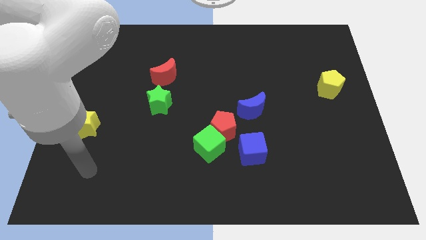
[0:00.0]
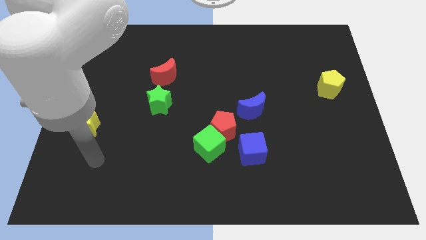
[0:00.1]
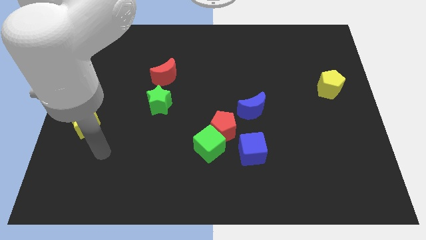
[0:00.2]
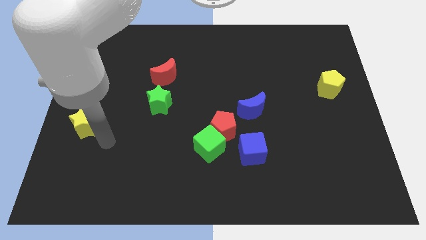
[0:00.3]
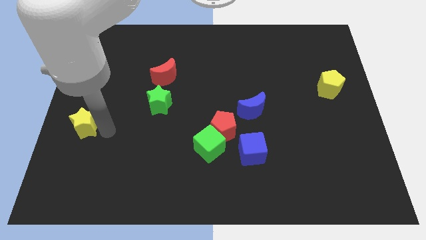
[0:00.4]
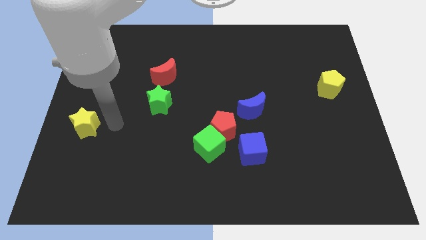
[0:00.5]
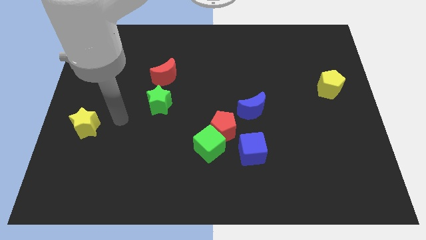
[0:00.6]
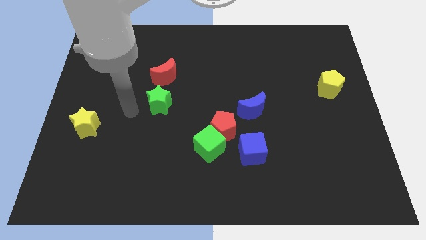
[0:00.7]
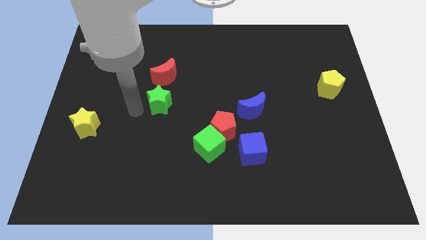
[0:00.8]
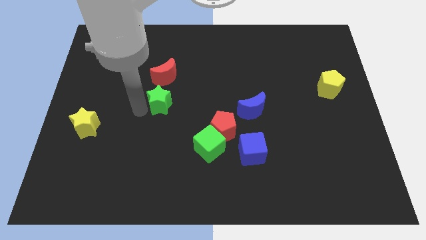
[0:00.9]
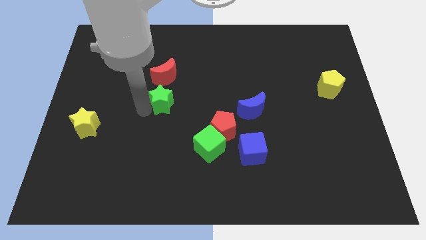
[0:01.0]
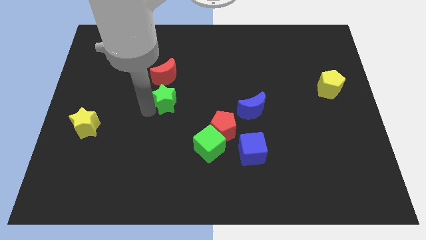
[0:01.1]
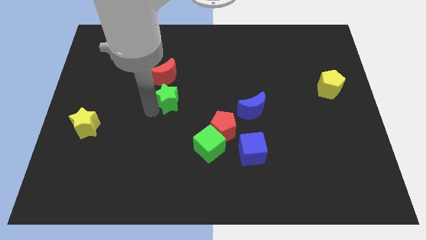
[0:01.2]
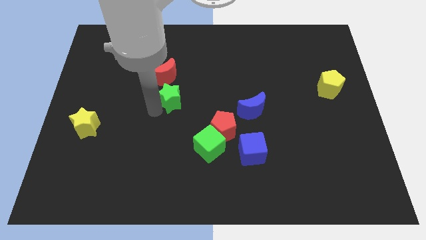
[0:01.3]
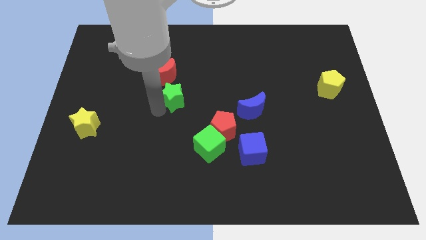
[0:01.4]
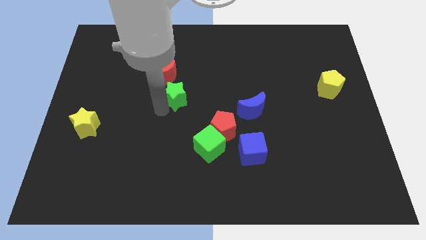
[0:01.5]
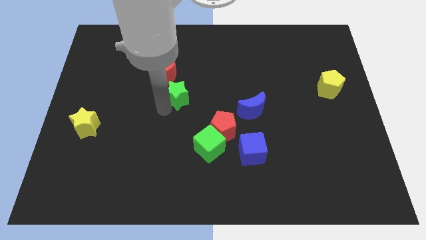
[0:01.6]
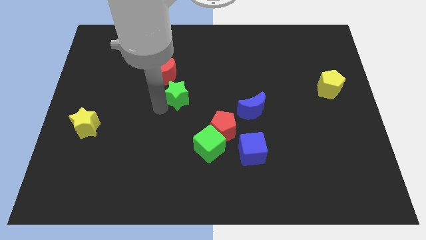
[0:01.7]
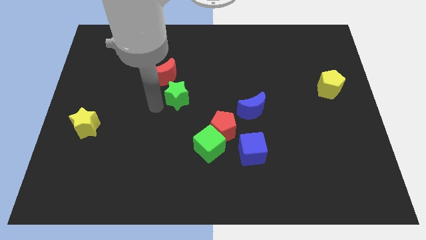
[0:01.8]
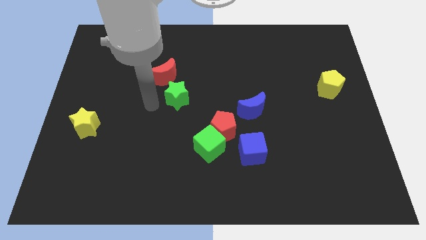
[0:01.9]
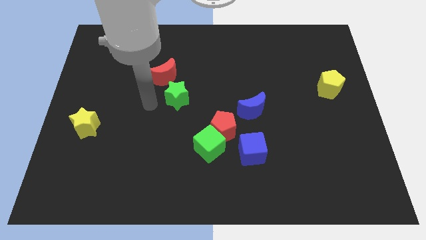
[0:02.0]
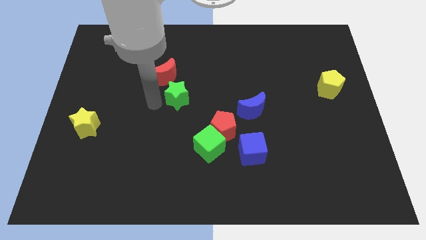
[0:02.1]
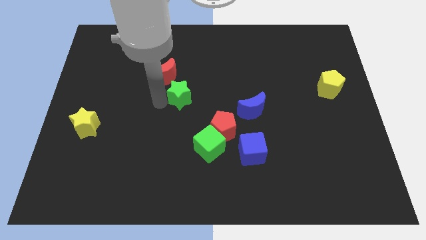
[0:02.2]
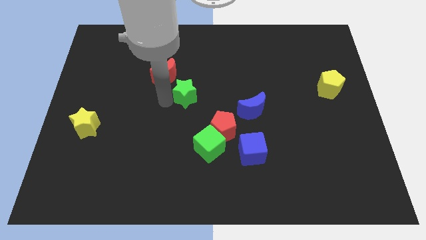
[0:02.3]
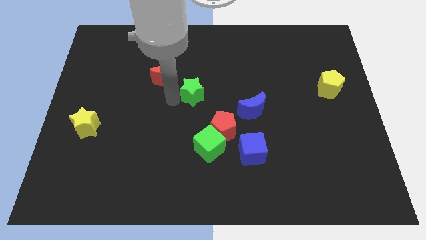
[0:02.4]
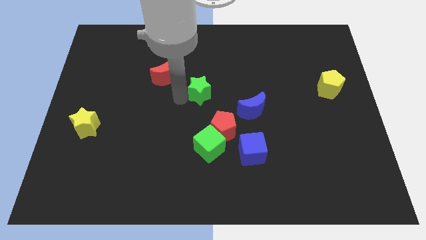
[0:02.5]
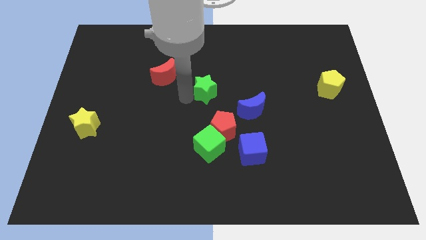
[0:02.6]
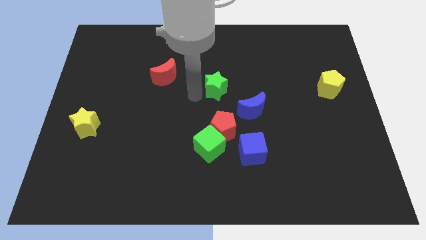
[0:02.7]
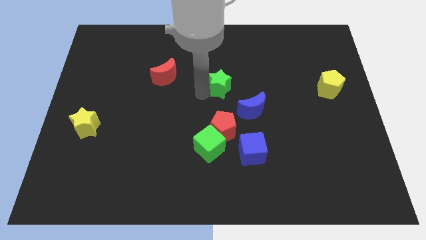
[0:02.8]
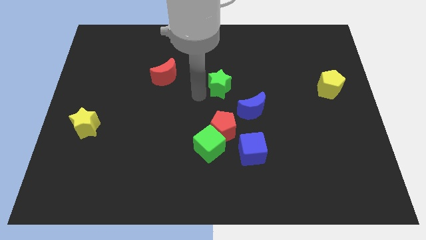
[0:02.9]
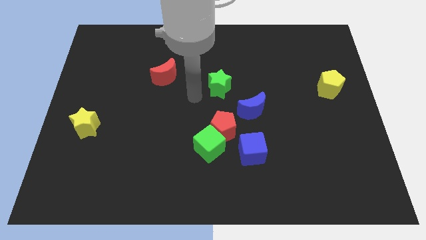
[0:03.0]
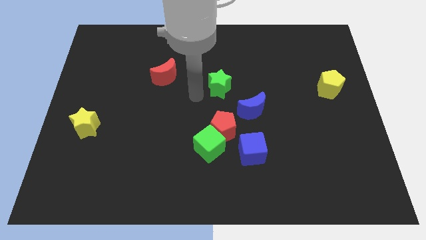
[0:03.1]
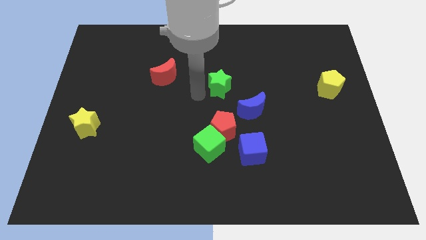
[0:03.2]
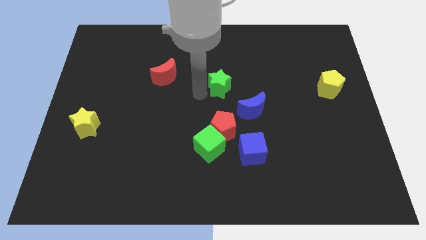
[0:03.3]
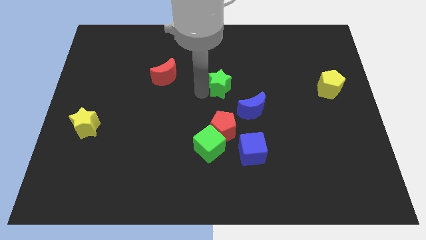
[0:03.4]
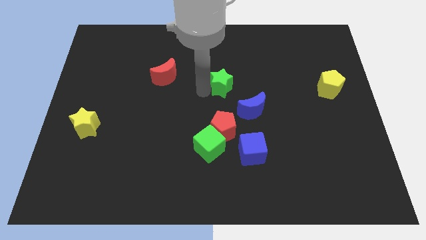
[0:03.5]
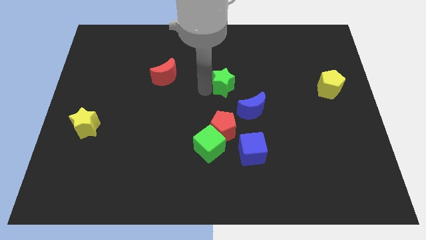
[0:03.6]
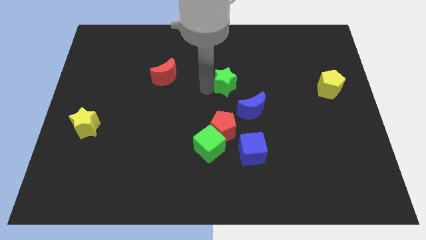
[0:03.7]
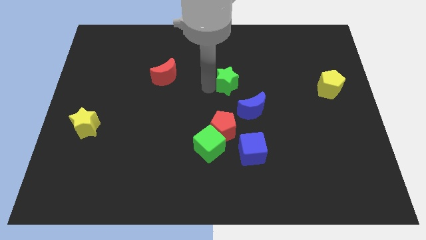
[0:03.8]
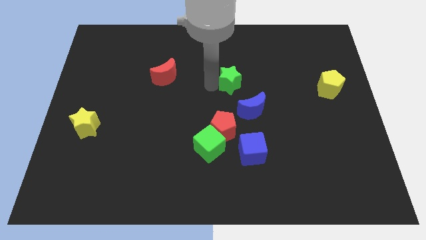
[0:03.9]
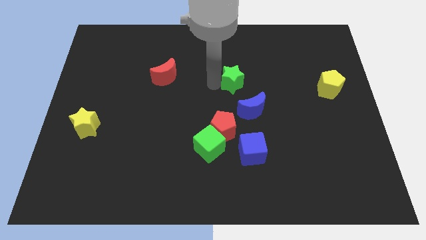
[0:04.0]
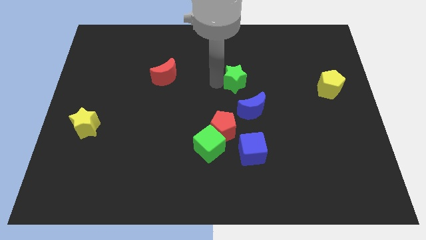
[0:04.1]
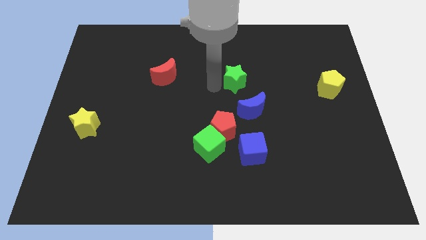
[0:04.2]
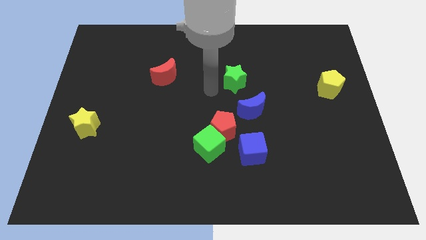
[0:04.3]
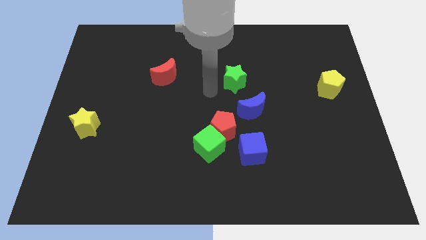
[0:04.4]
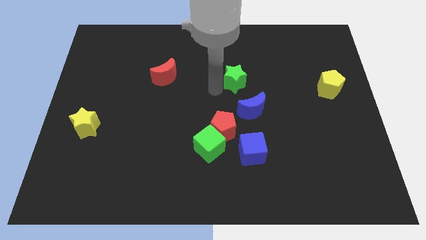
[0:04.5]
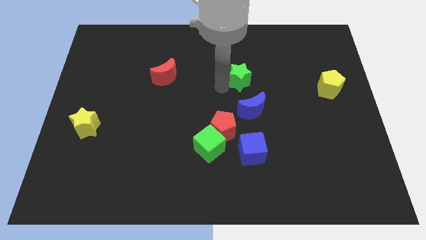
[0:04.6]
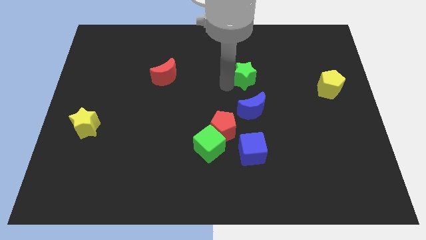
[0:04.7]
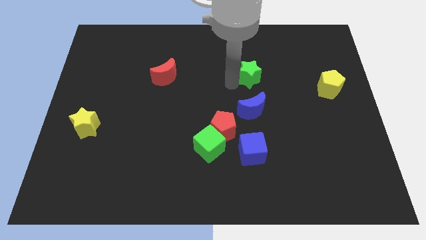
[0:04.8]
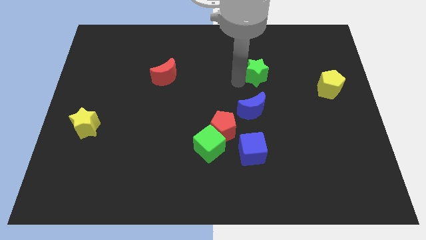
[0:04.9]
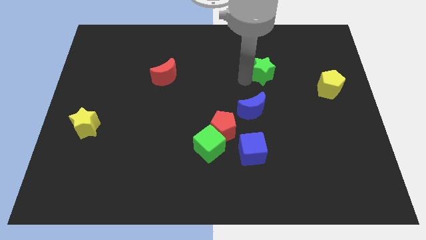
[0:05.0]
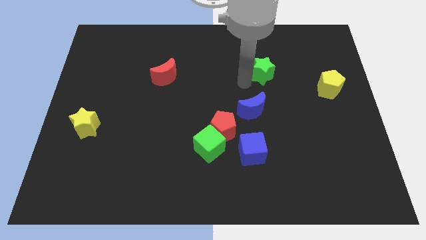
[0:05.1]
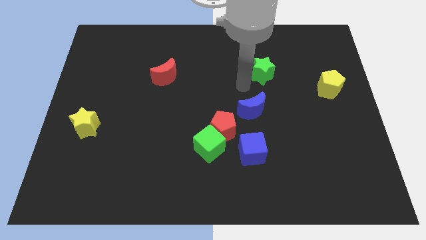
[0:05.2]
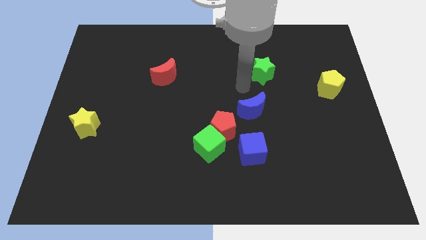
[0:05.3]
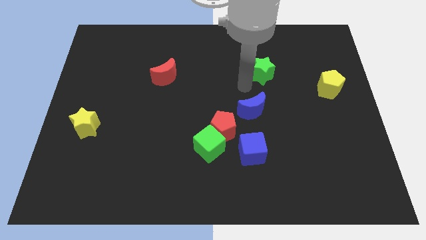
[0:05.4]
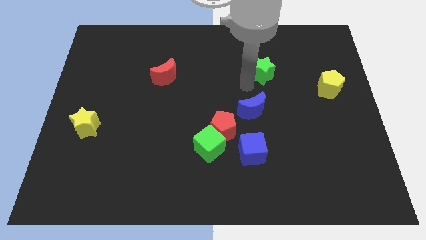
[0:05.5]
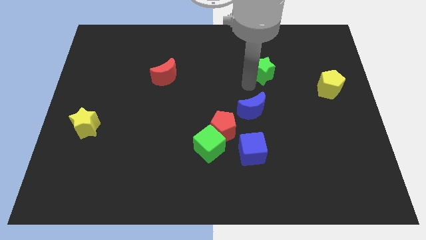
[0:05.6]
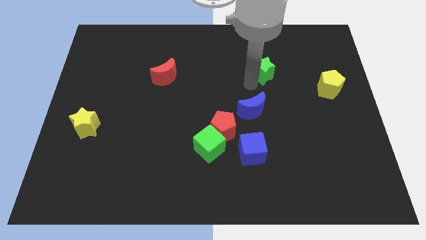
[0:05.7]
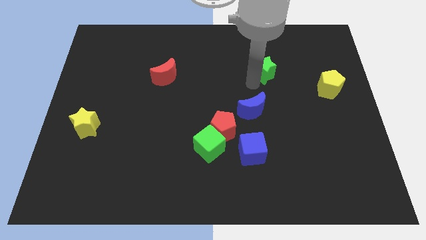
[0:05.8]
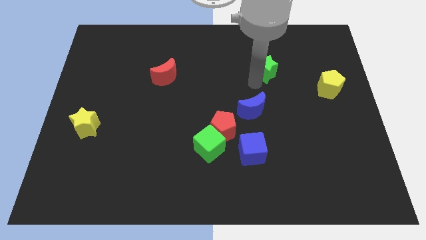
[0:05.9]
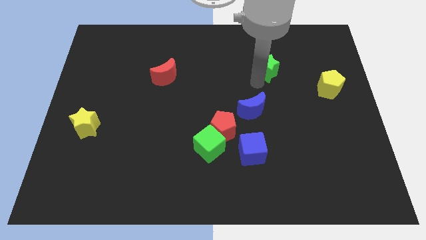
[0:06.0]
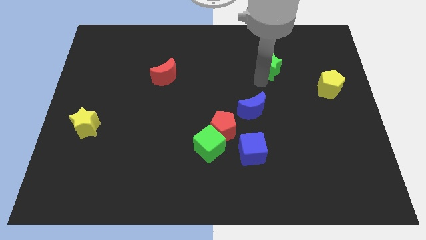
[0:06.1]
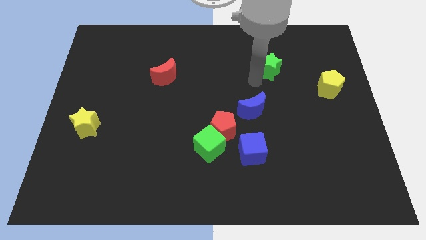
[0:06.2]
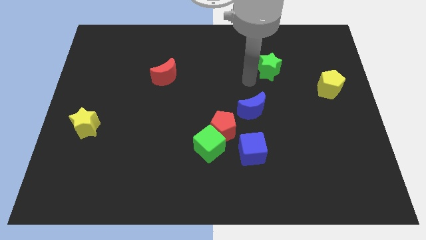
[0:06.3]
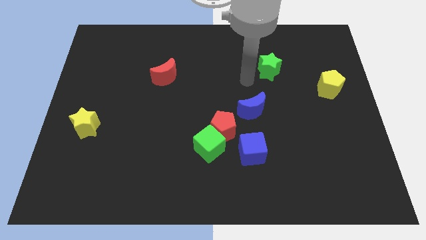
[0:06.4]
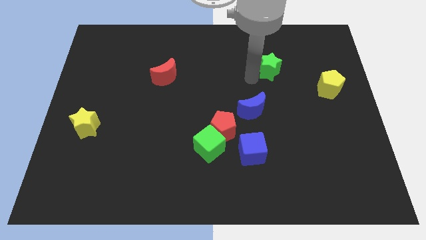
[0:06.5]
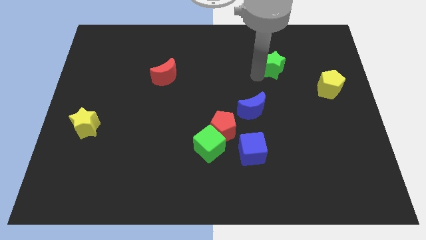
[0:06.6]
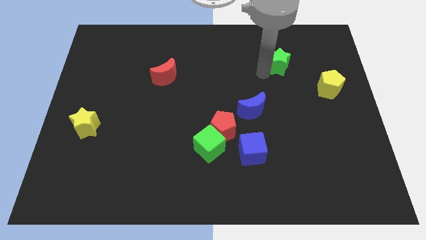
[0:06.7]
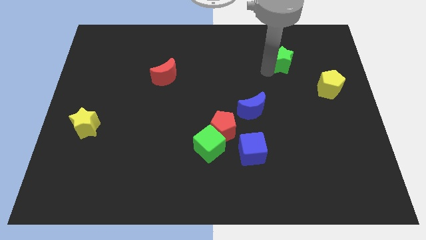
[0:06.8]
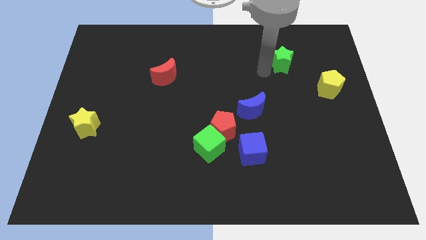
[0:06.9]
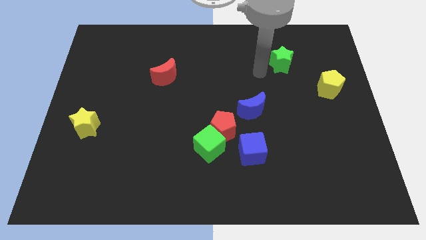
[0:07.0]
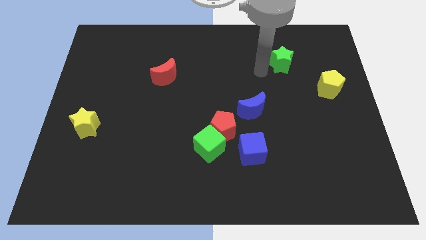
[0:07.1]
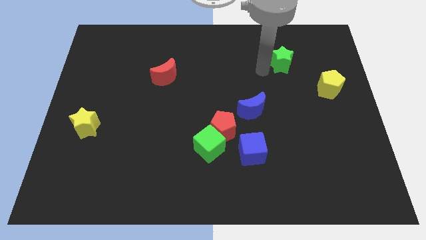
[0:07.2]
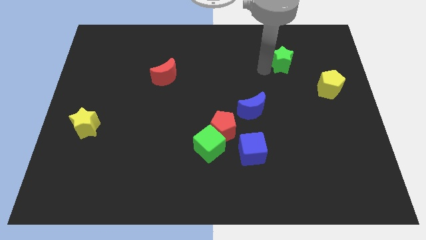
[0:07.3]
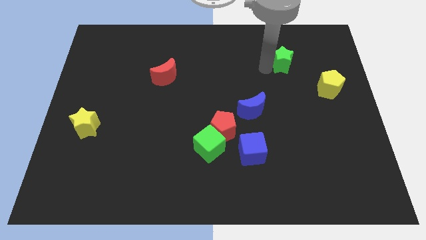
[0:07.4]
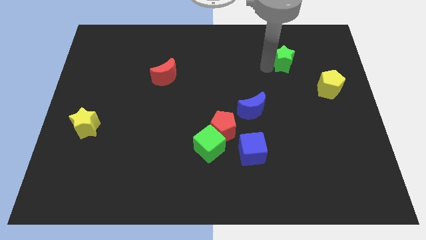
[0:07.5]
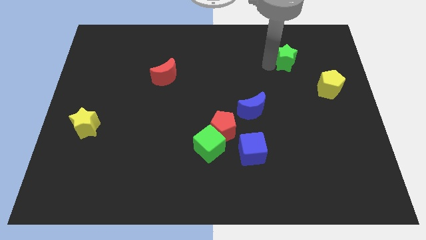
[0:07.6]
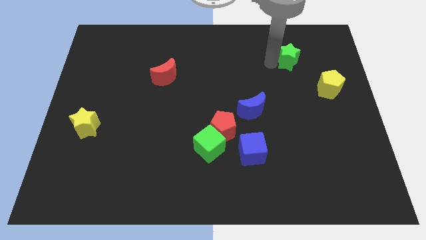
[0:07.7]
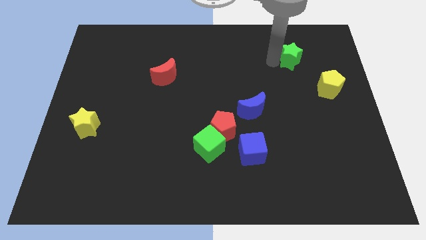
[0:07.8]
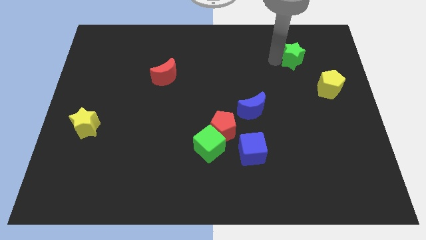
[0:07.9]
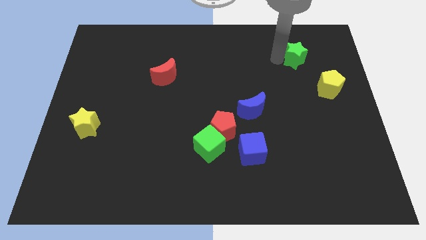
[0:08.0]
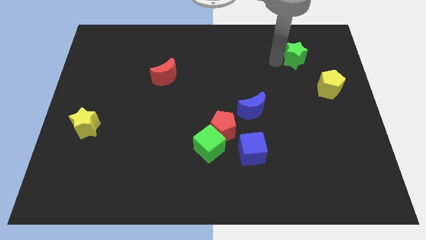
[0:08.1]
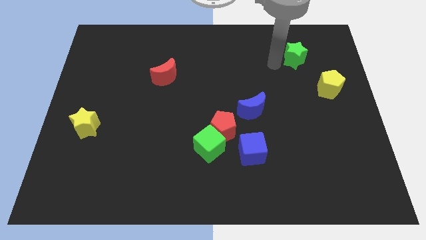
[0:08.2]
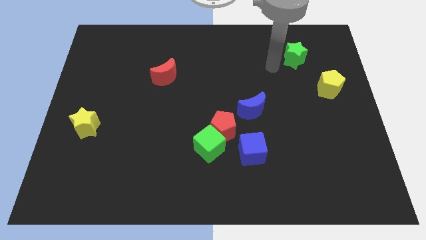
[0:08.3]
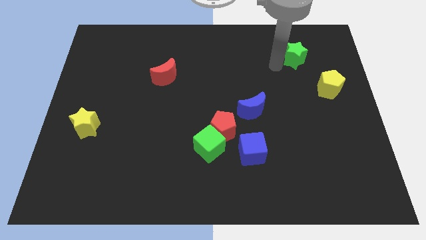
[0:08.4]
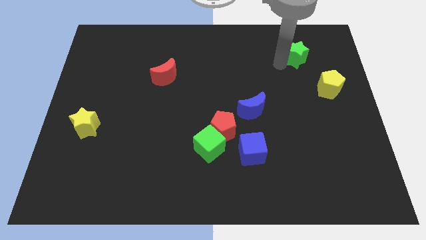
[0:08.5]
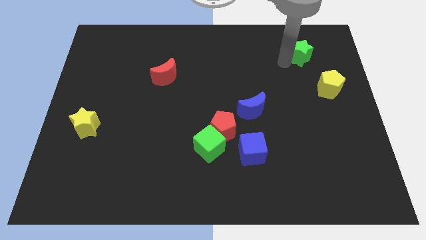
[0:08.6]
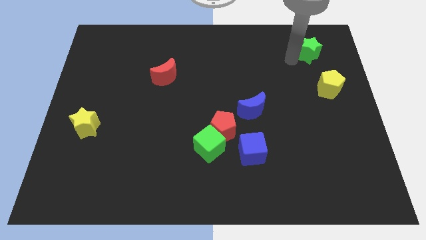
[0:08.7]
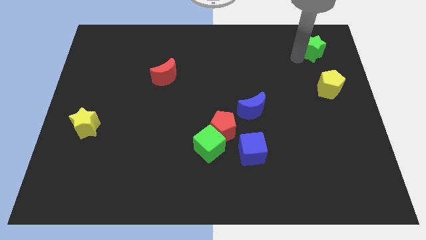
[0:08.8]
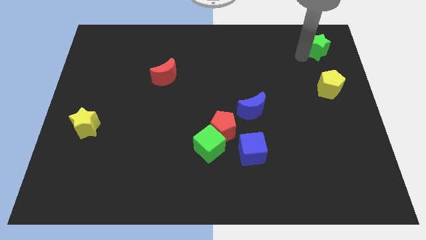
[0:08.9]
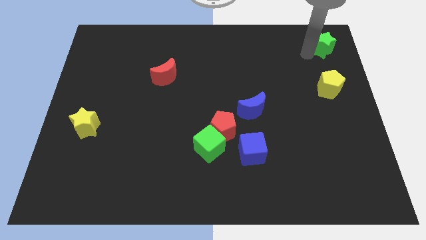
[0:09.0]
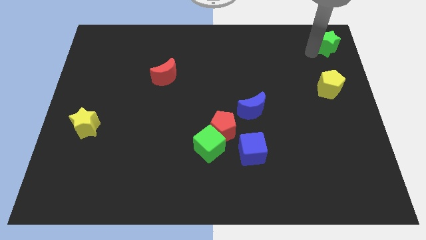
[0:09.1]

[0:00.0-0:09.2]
slide the green star to the top right corner
